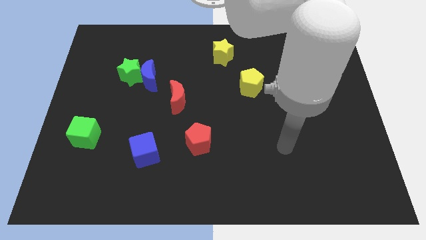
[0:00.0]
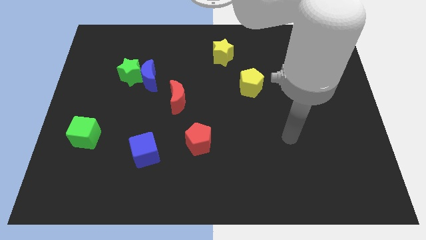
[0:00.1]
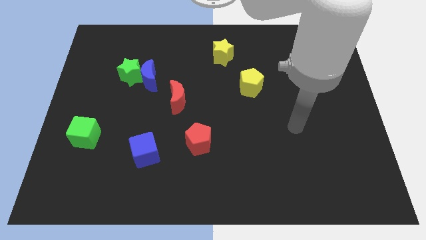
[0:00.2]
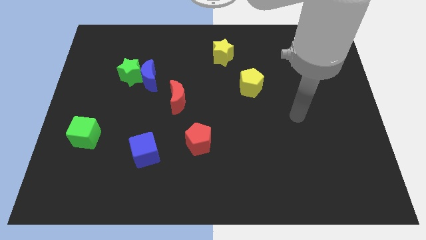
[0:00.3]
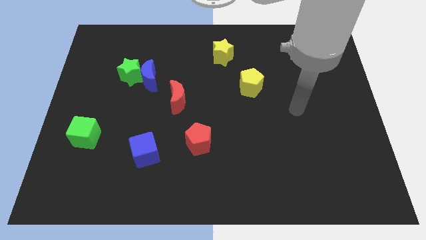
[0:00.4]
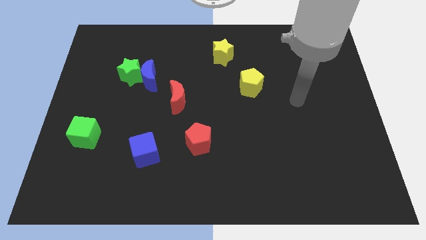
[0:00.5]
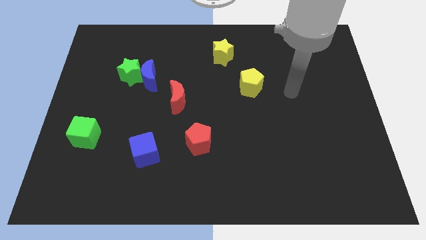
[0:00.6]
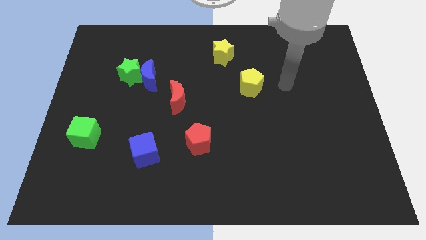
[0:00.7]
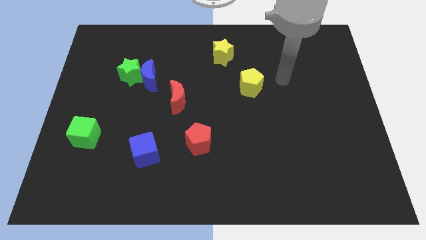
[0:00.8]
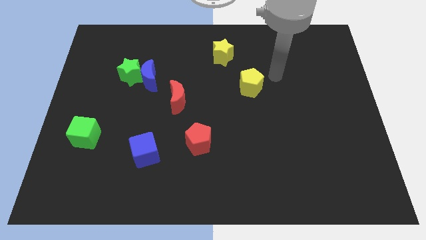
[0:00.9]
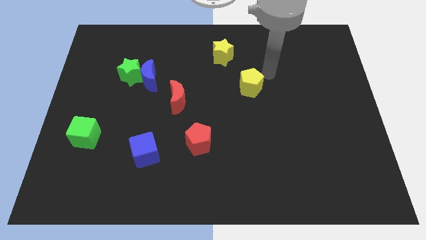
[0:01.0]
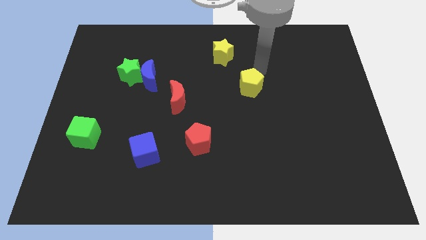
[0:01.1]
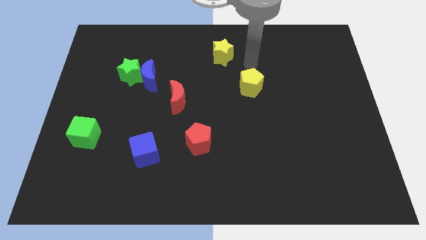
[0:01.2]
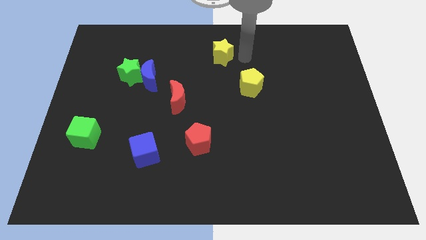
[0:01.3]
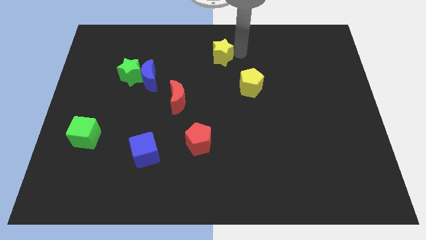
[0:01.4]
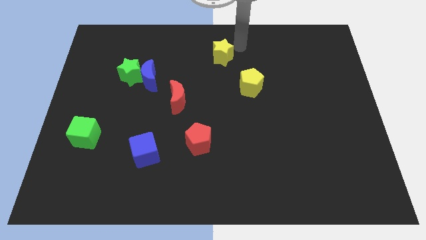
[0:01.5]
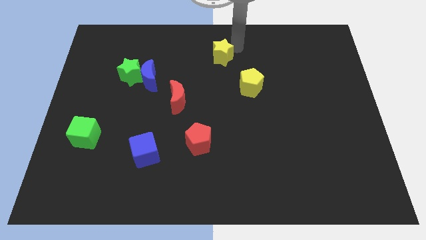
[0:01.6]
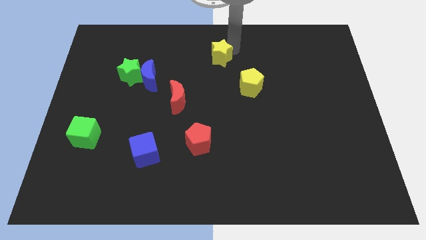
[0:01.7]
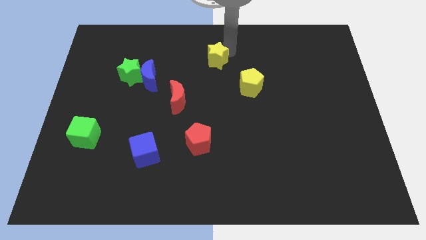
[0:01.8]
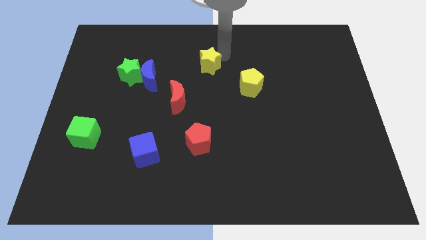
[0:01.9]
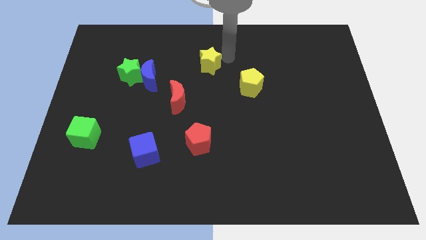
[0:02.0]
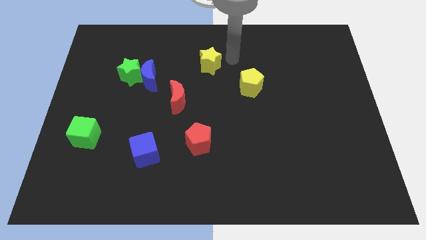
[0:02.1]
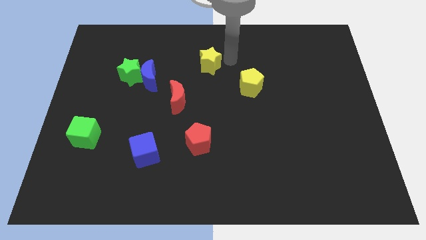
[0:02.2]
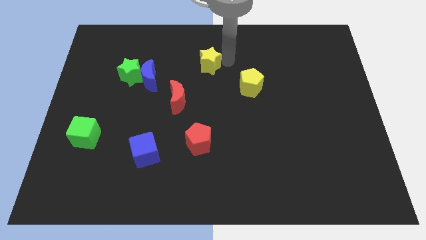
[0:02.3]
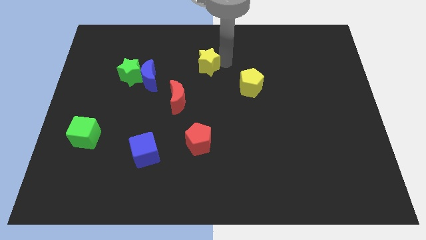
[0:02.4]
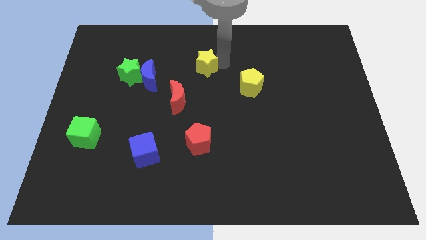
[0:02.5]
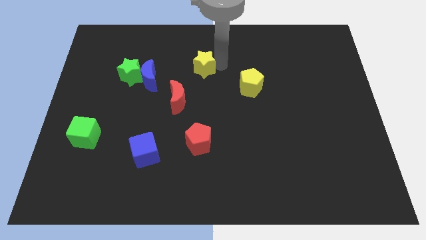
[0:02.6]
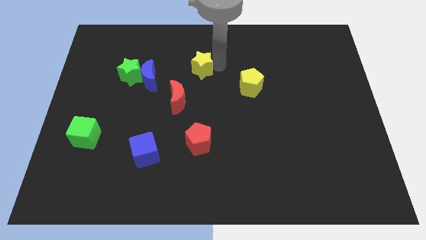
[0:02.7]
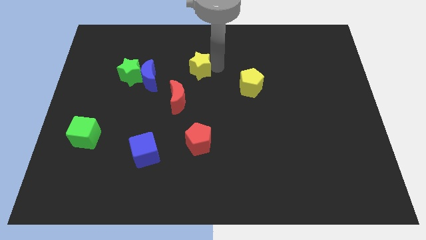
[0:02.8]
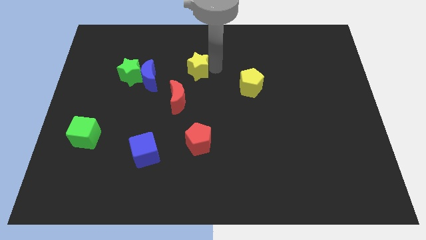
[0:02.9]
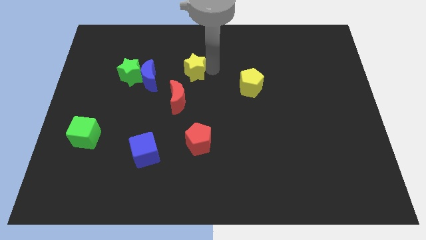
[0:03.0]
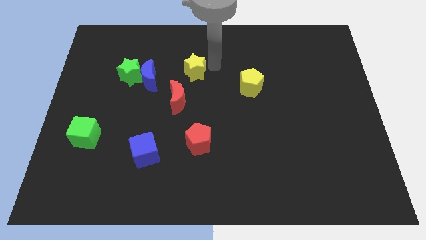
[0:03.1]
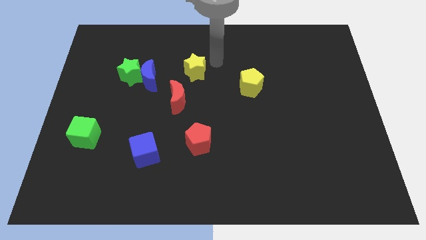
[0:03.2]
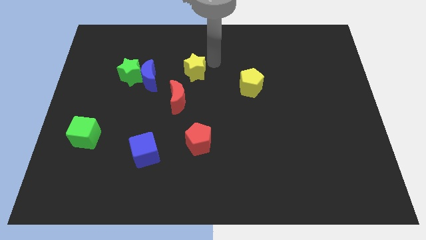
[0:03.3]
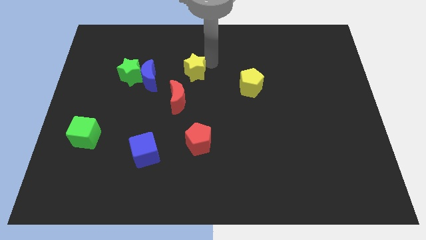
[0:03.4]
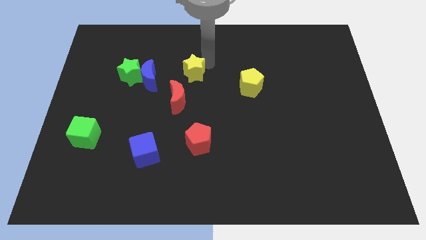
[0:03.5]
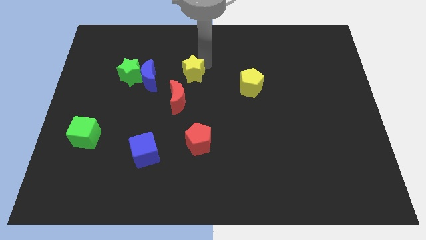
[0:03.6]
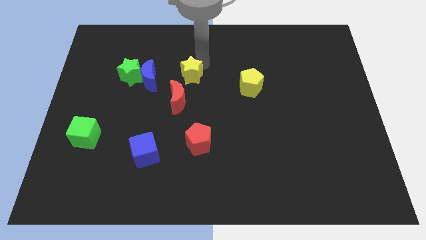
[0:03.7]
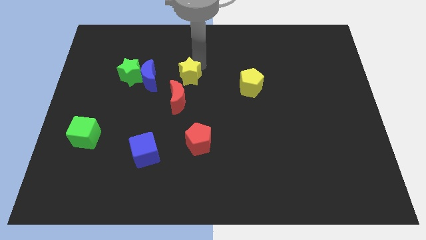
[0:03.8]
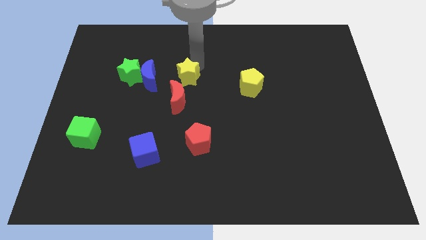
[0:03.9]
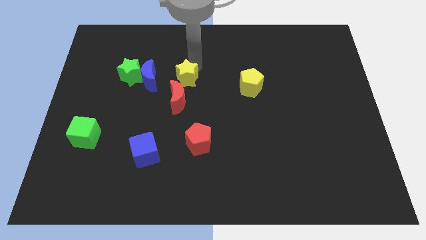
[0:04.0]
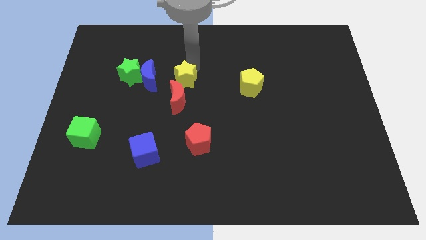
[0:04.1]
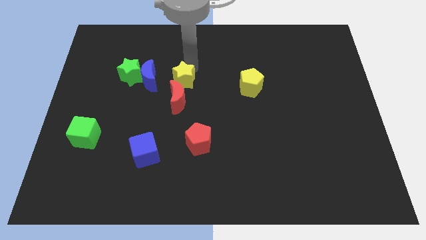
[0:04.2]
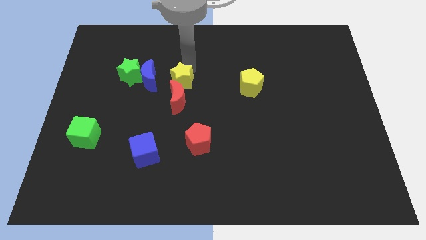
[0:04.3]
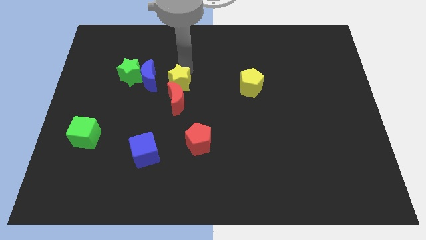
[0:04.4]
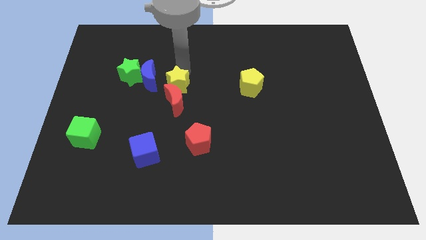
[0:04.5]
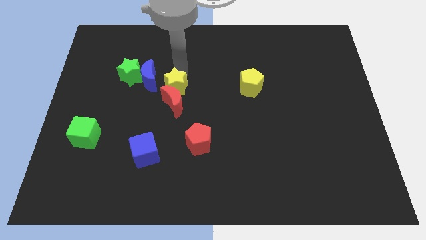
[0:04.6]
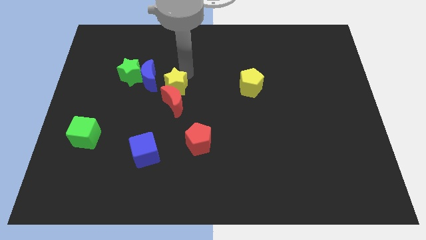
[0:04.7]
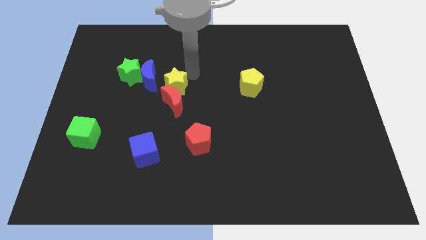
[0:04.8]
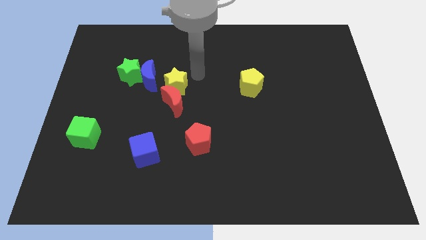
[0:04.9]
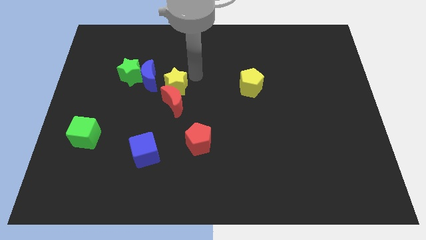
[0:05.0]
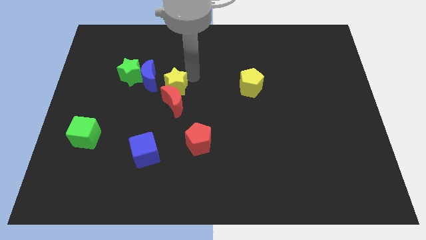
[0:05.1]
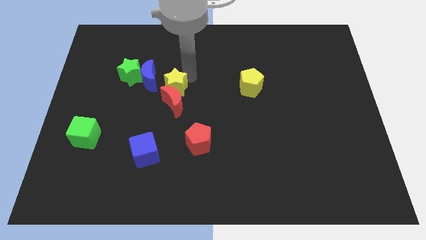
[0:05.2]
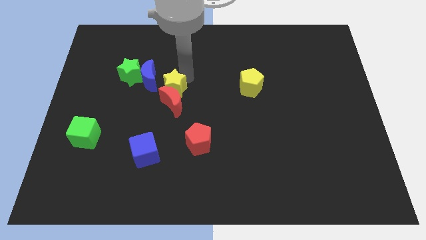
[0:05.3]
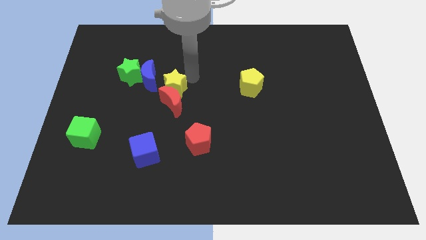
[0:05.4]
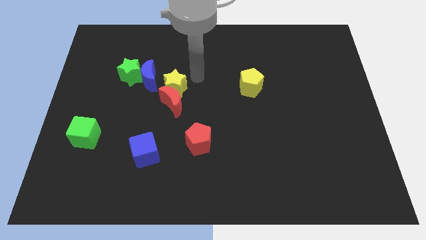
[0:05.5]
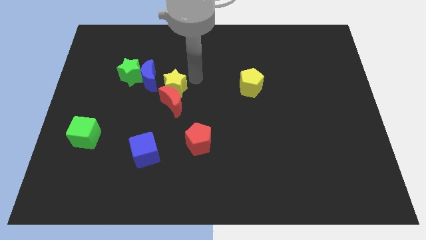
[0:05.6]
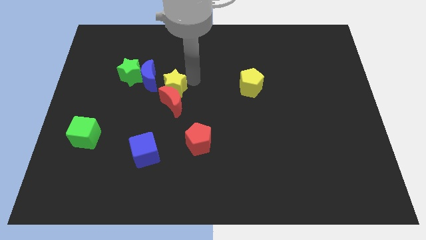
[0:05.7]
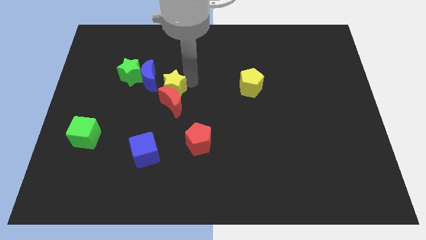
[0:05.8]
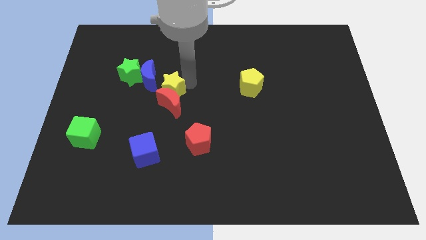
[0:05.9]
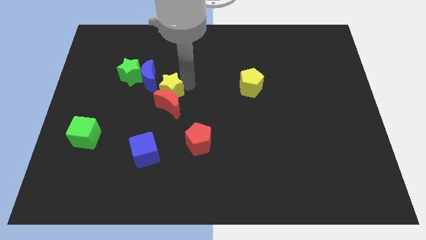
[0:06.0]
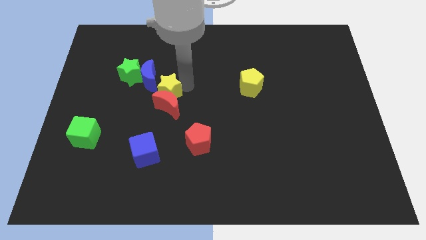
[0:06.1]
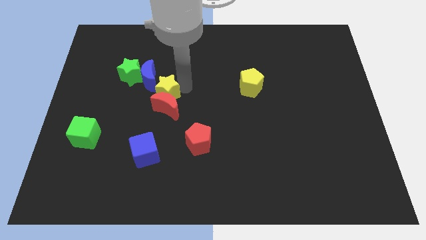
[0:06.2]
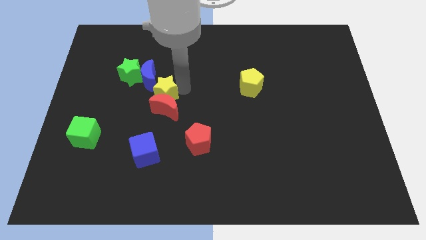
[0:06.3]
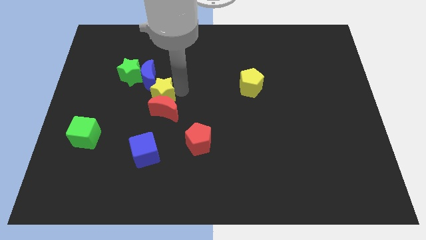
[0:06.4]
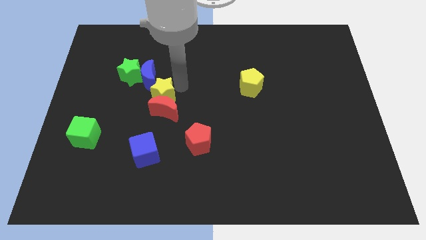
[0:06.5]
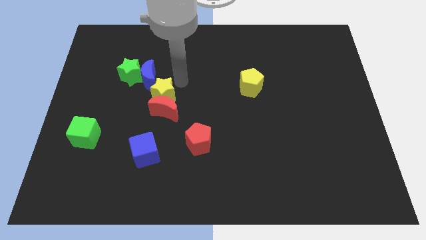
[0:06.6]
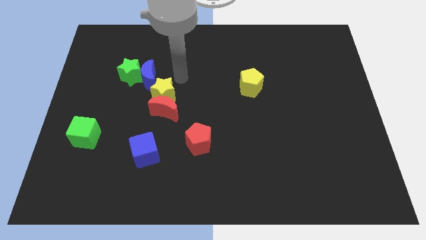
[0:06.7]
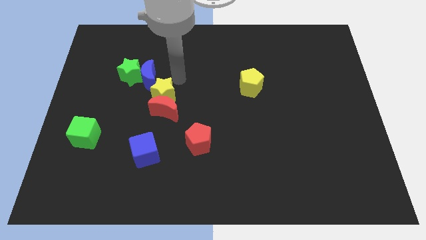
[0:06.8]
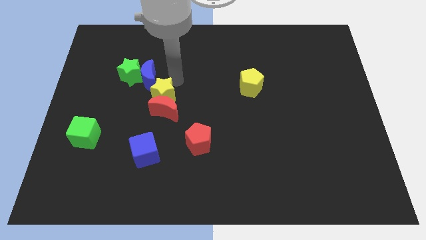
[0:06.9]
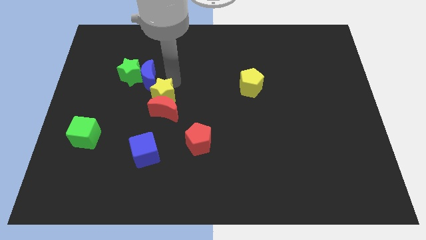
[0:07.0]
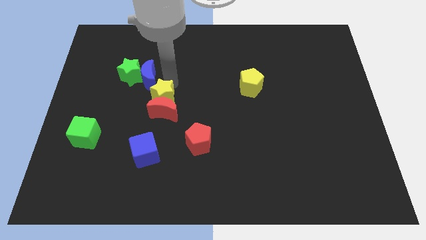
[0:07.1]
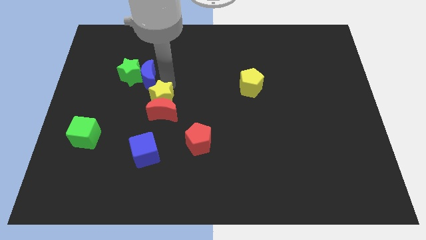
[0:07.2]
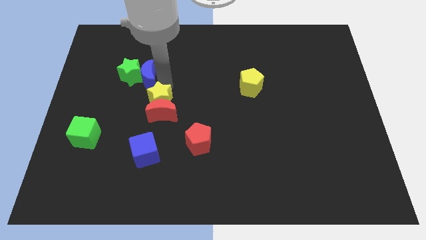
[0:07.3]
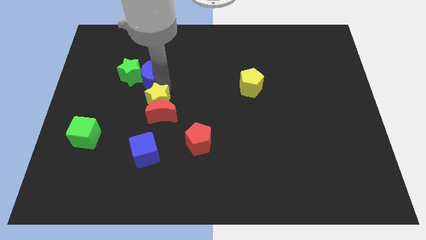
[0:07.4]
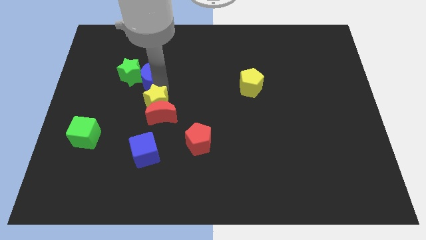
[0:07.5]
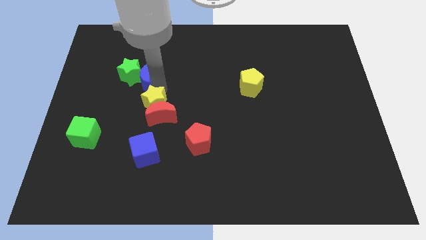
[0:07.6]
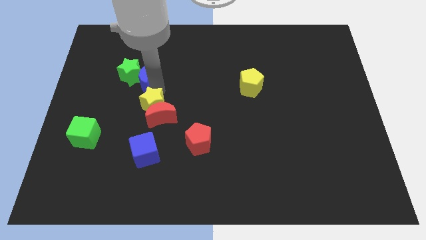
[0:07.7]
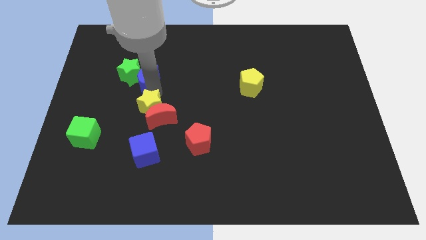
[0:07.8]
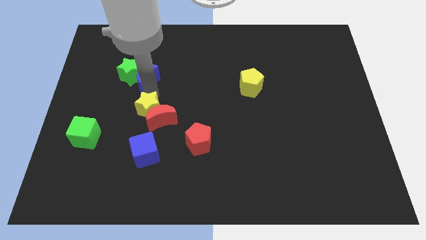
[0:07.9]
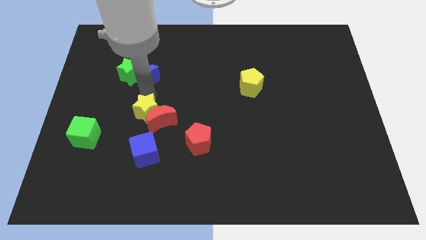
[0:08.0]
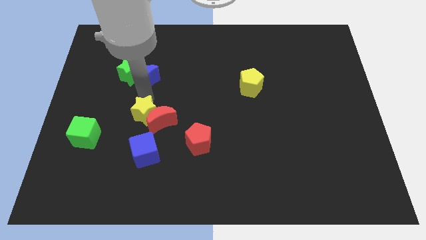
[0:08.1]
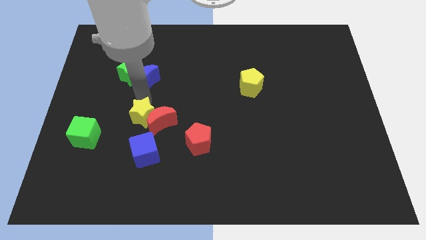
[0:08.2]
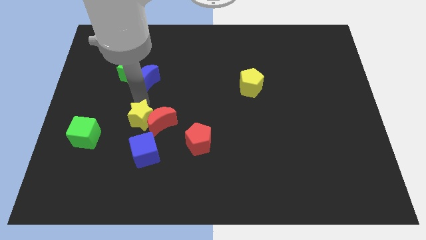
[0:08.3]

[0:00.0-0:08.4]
slide the yellow star right of the green cube
